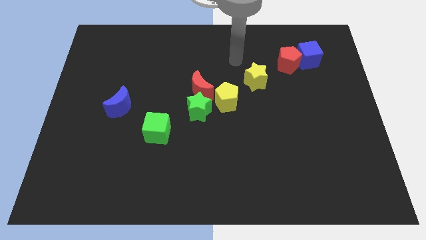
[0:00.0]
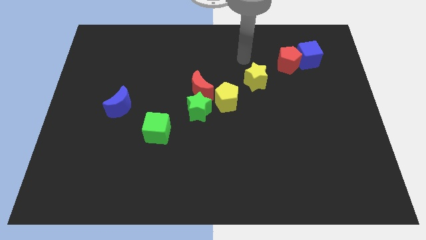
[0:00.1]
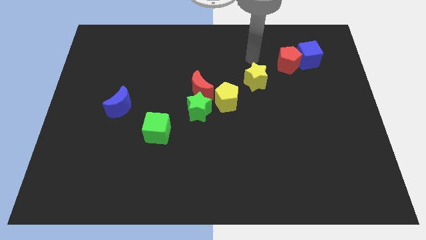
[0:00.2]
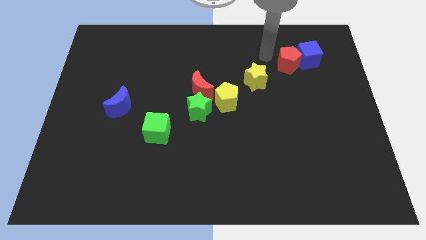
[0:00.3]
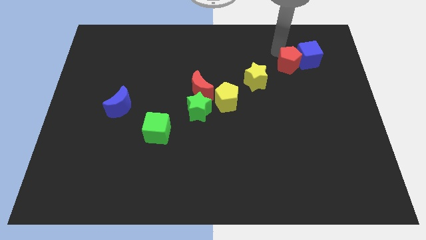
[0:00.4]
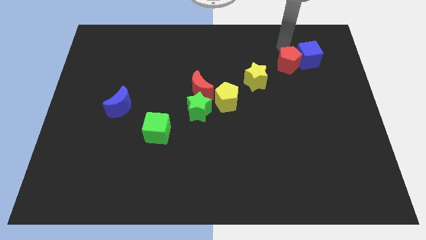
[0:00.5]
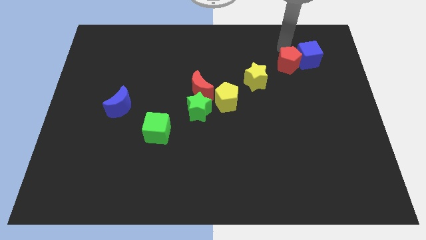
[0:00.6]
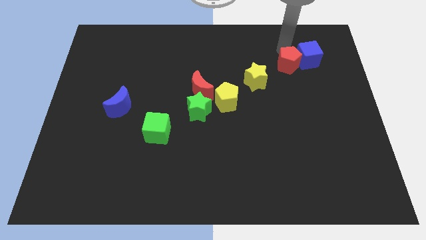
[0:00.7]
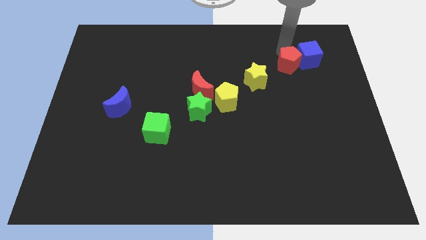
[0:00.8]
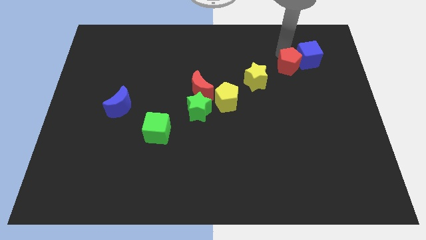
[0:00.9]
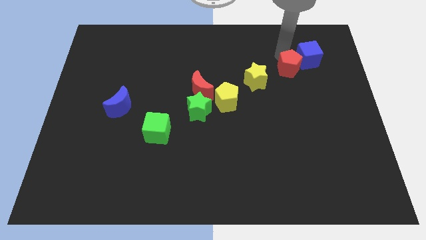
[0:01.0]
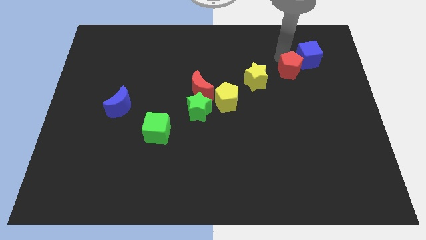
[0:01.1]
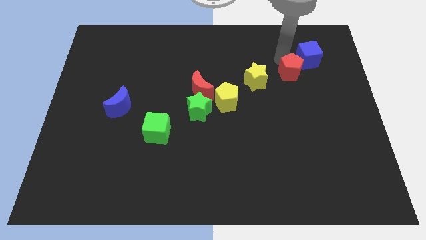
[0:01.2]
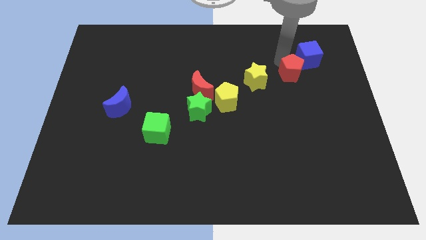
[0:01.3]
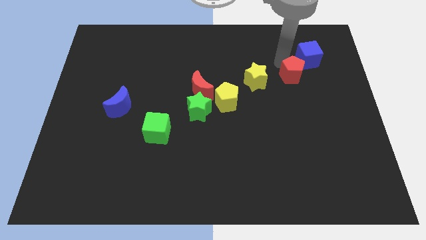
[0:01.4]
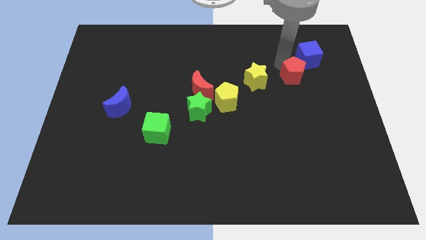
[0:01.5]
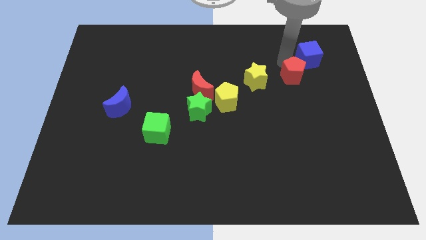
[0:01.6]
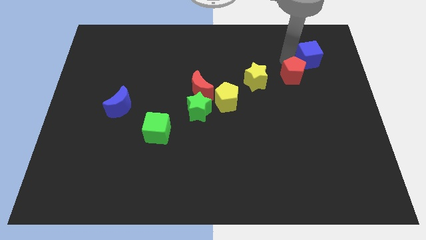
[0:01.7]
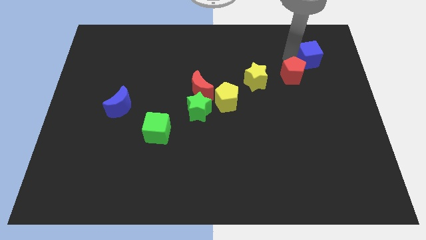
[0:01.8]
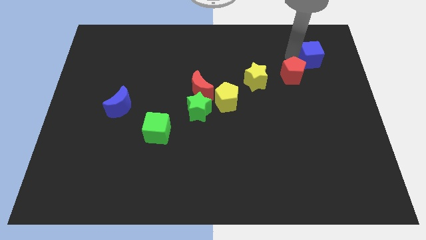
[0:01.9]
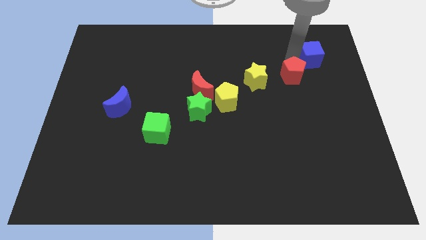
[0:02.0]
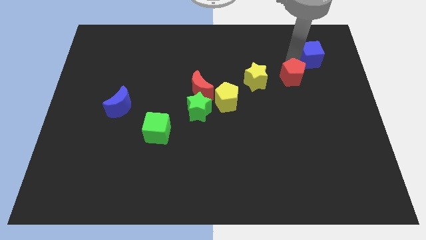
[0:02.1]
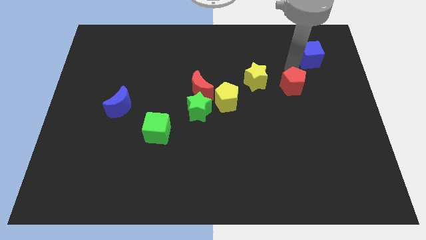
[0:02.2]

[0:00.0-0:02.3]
push the red pentagon a little bit down

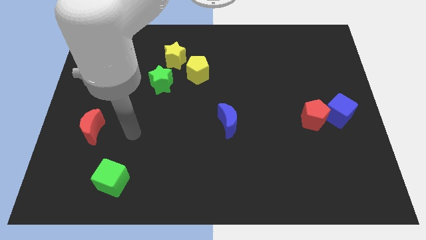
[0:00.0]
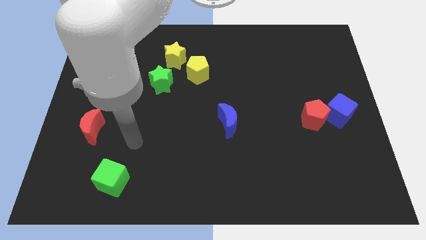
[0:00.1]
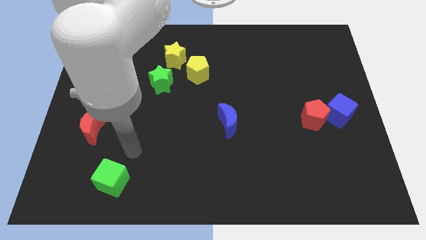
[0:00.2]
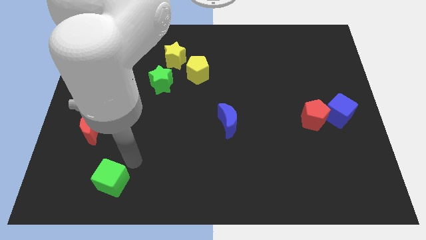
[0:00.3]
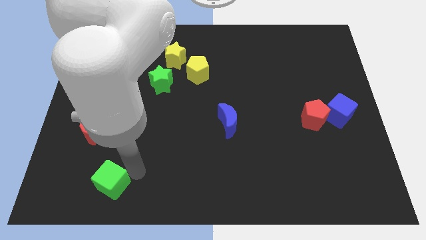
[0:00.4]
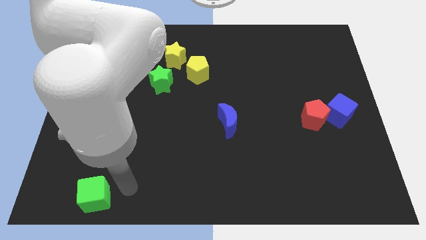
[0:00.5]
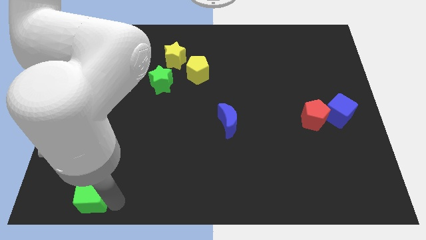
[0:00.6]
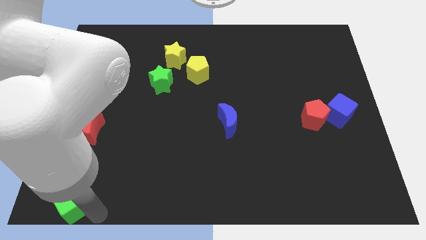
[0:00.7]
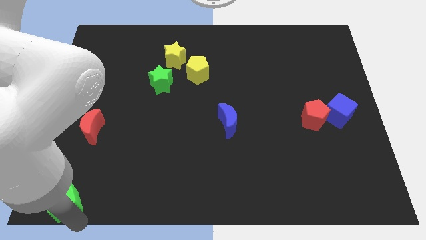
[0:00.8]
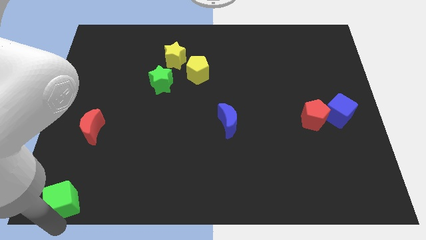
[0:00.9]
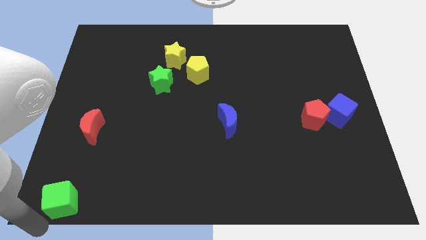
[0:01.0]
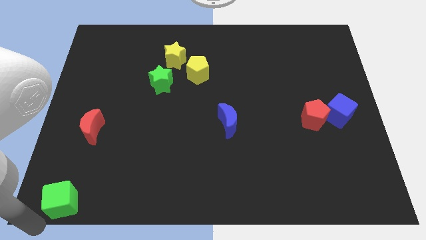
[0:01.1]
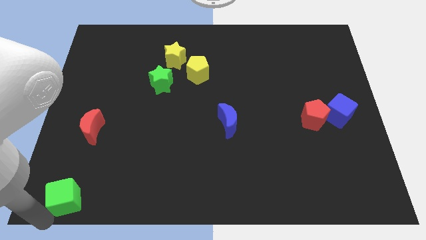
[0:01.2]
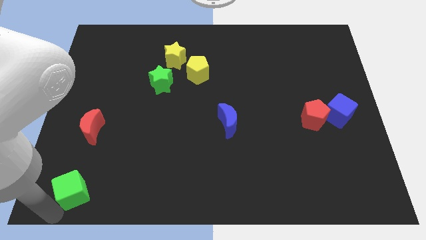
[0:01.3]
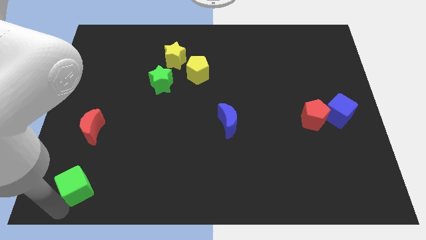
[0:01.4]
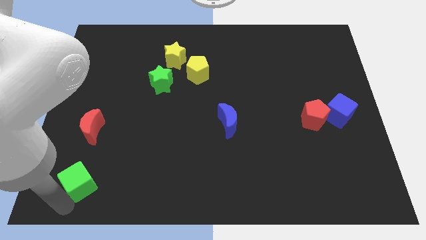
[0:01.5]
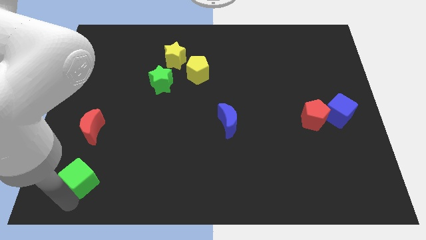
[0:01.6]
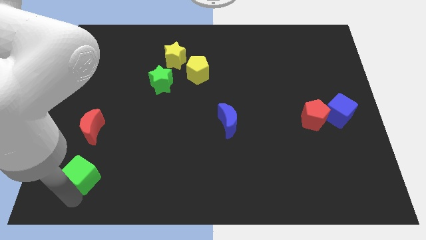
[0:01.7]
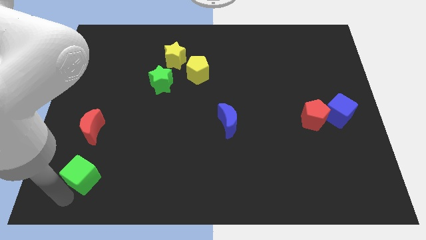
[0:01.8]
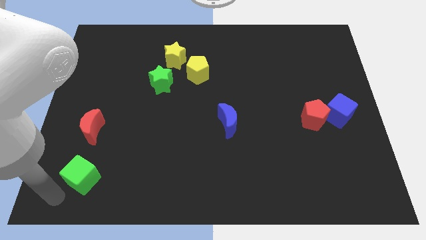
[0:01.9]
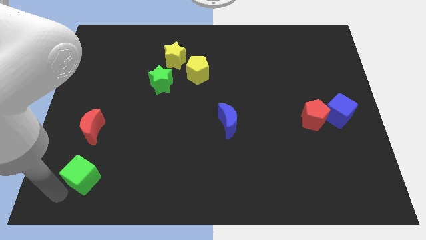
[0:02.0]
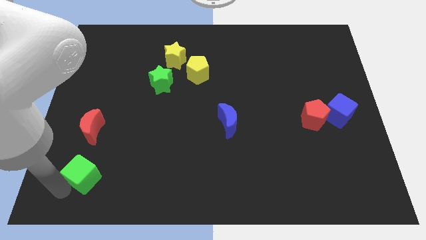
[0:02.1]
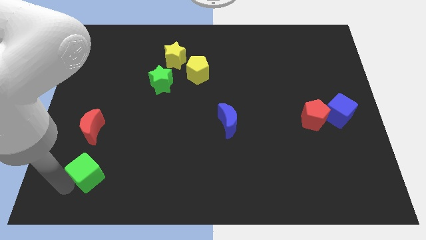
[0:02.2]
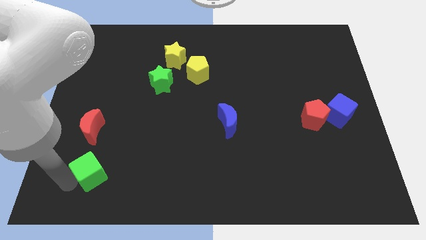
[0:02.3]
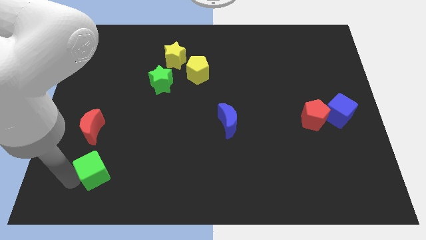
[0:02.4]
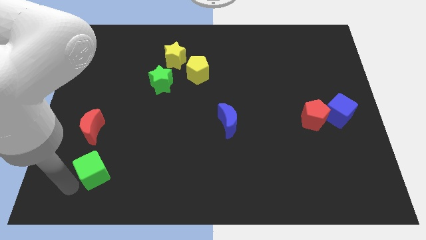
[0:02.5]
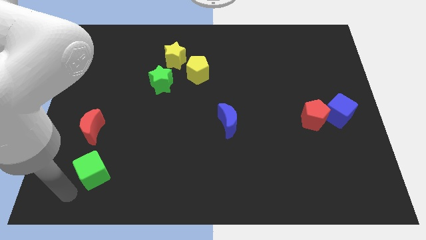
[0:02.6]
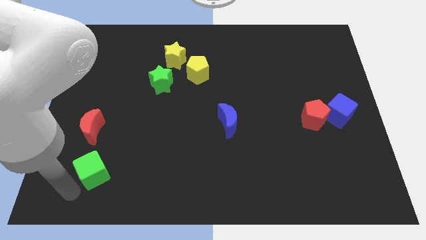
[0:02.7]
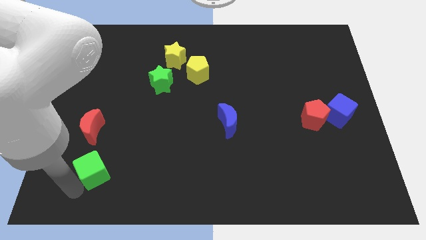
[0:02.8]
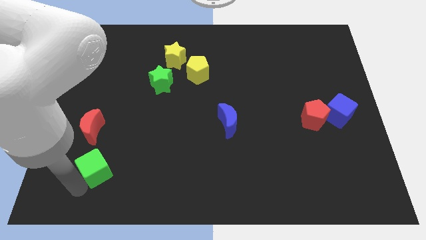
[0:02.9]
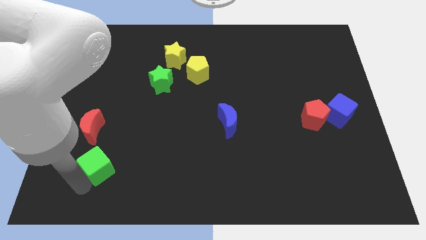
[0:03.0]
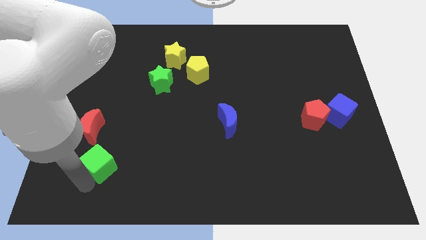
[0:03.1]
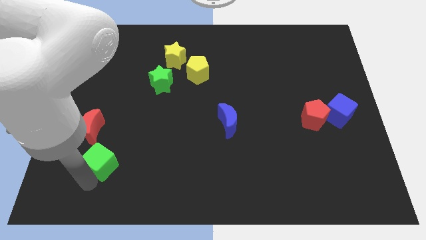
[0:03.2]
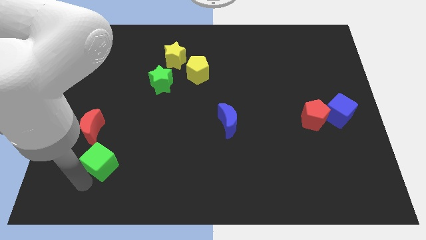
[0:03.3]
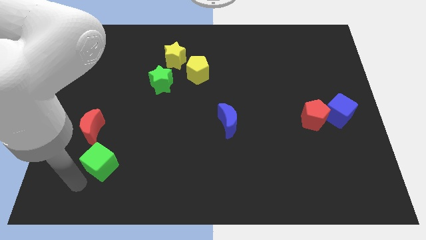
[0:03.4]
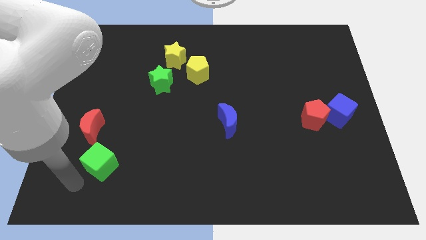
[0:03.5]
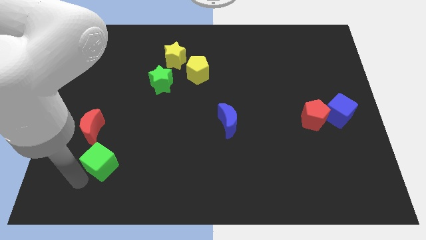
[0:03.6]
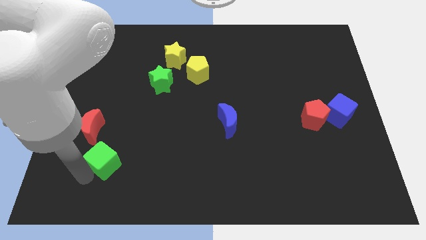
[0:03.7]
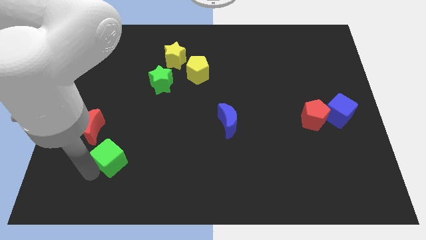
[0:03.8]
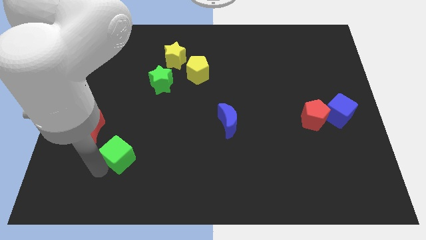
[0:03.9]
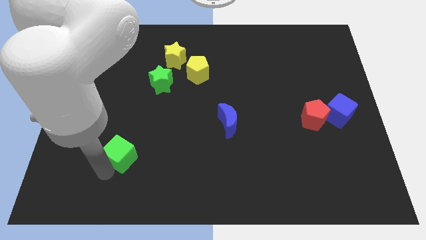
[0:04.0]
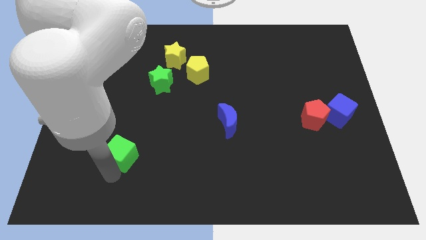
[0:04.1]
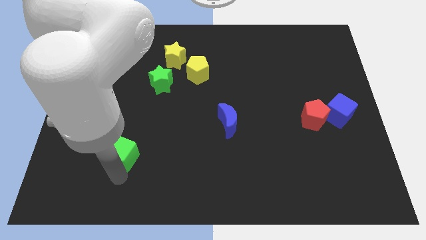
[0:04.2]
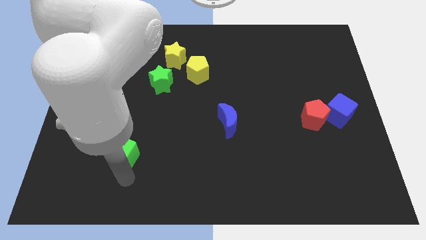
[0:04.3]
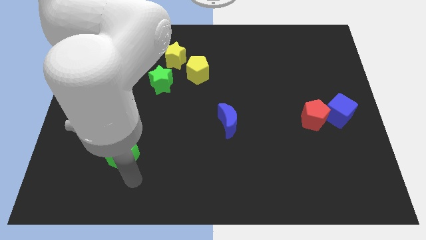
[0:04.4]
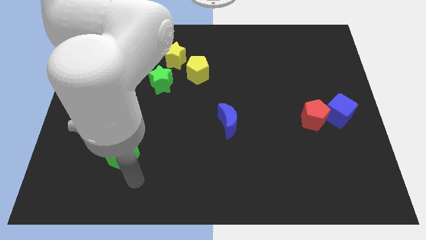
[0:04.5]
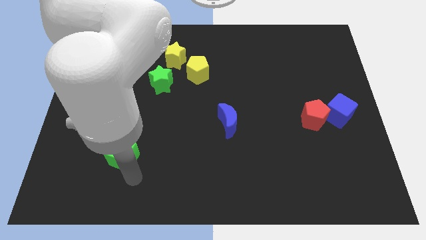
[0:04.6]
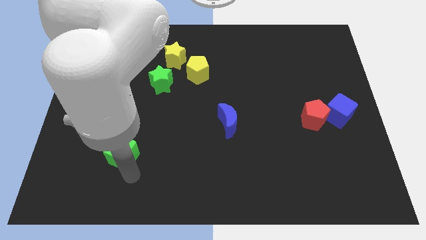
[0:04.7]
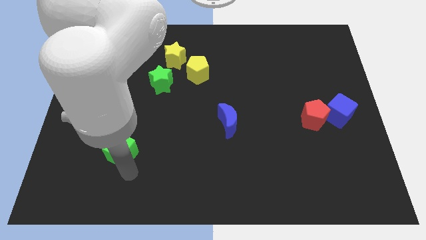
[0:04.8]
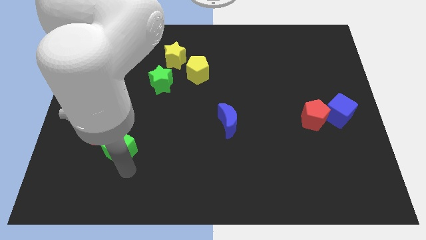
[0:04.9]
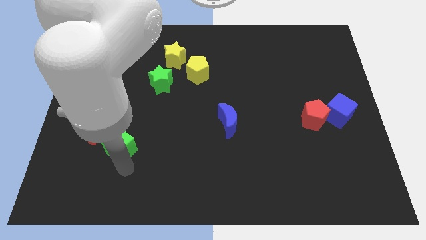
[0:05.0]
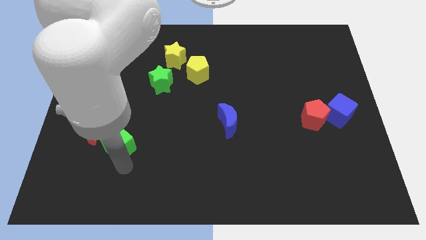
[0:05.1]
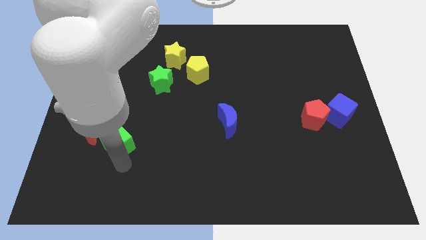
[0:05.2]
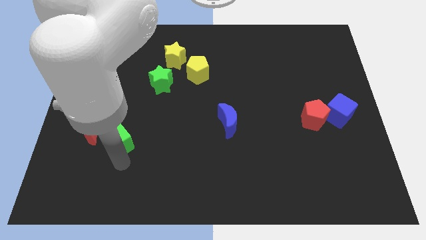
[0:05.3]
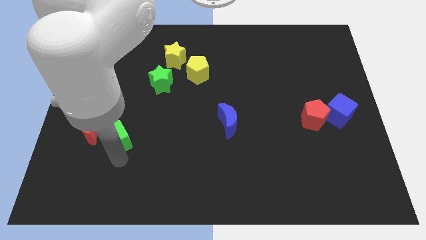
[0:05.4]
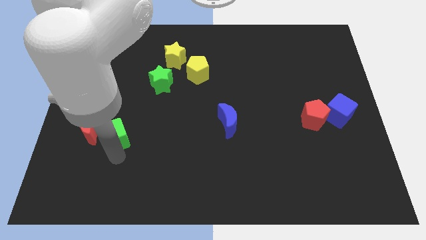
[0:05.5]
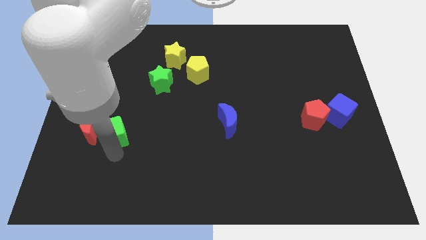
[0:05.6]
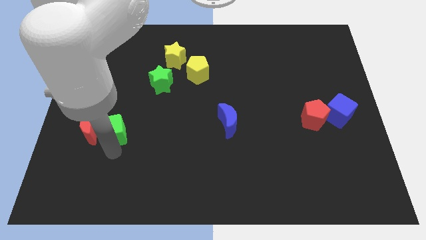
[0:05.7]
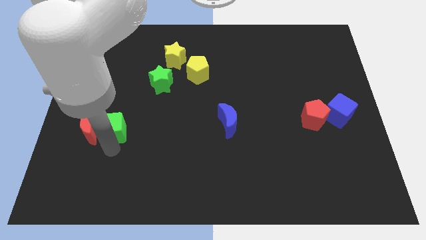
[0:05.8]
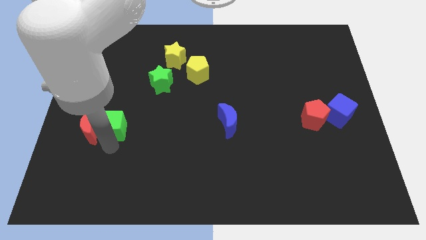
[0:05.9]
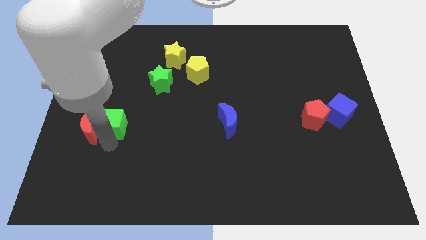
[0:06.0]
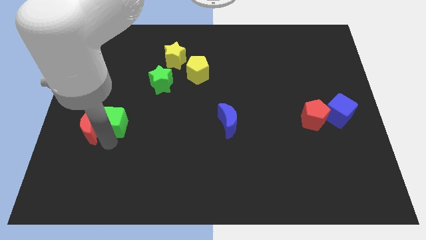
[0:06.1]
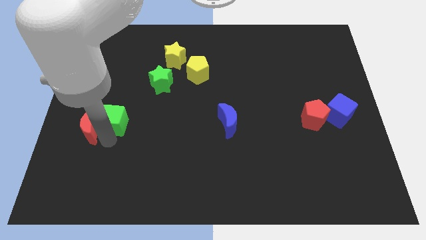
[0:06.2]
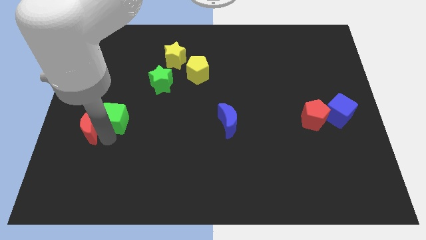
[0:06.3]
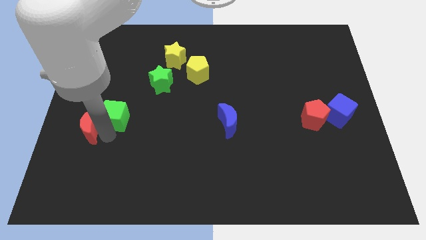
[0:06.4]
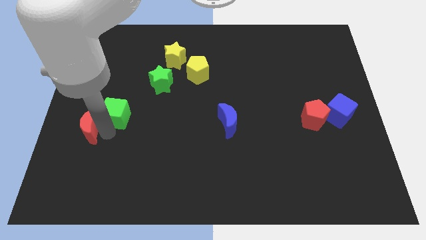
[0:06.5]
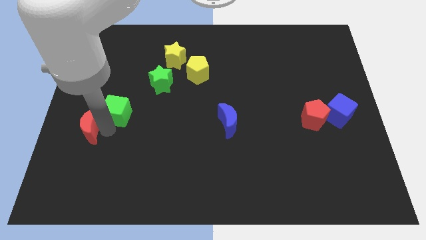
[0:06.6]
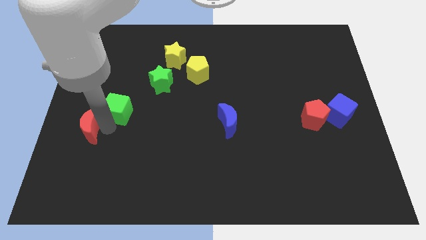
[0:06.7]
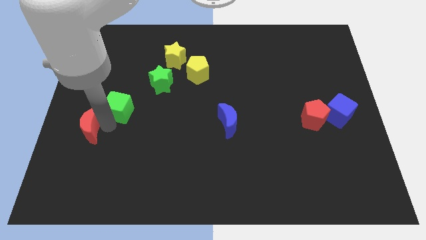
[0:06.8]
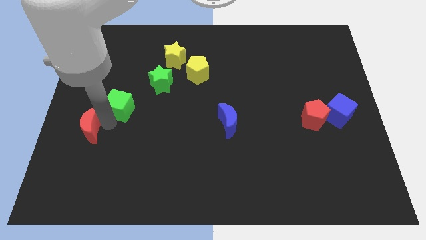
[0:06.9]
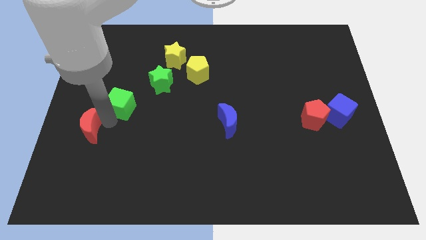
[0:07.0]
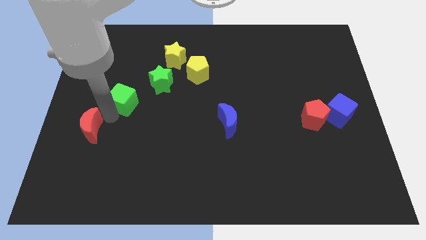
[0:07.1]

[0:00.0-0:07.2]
push the green cube upwards
